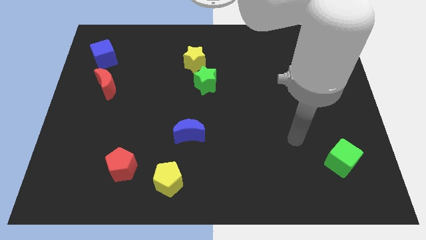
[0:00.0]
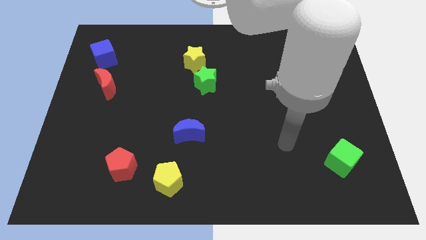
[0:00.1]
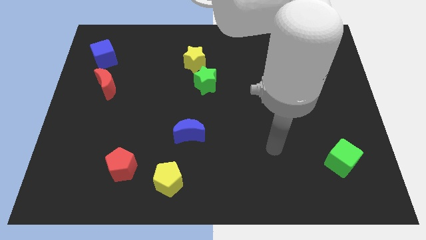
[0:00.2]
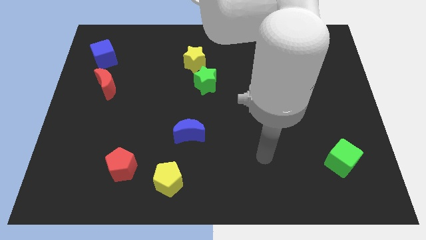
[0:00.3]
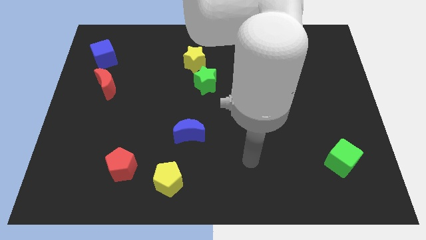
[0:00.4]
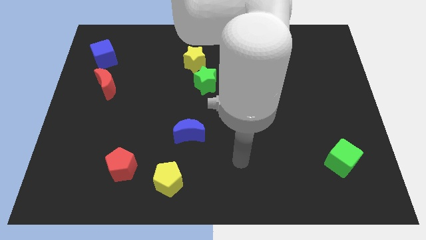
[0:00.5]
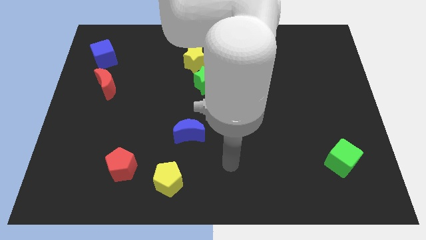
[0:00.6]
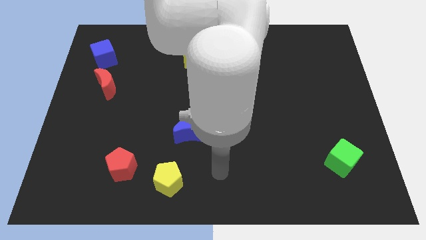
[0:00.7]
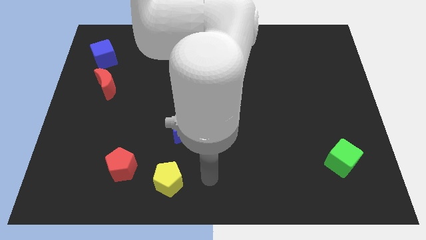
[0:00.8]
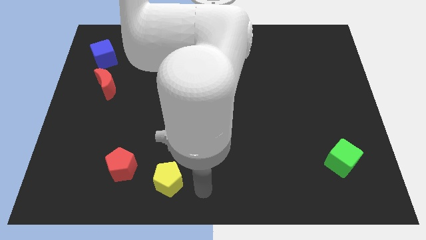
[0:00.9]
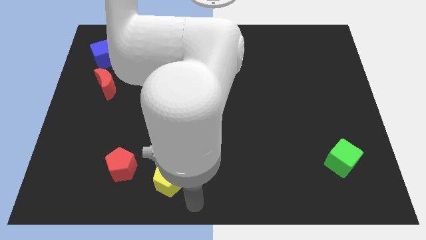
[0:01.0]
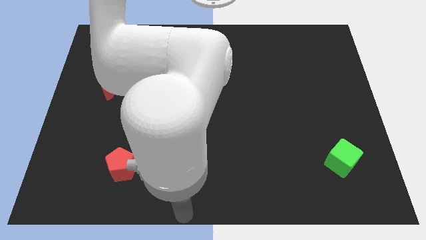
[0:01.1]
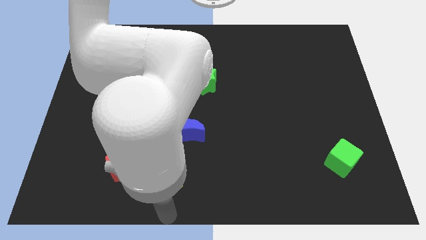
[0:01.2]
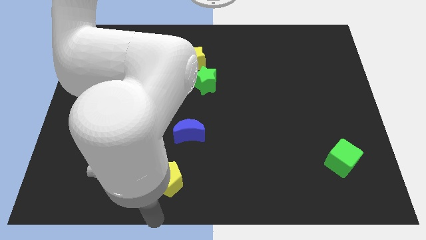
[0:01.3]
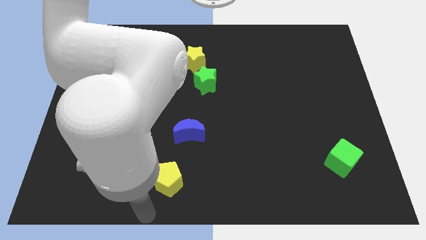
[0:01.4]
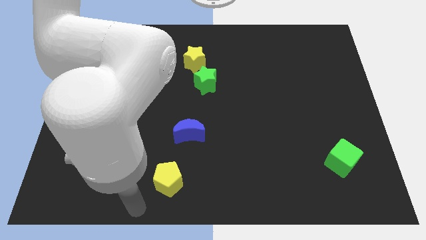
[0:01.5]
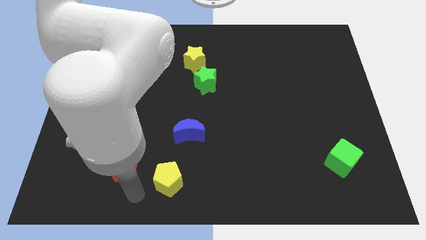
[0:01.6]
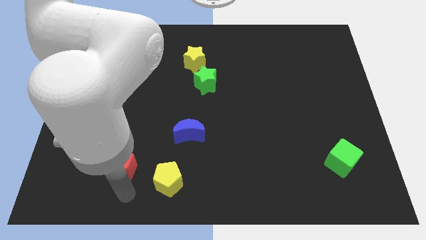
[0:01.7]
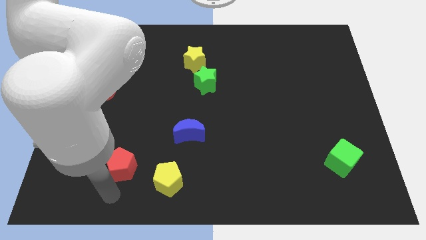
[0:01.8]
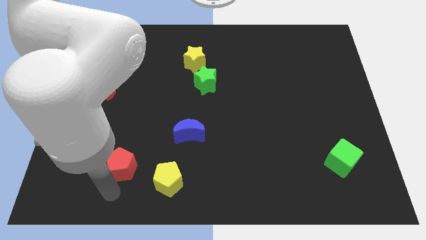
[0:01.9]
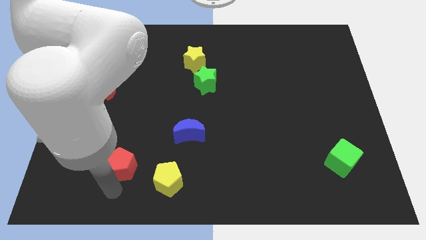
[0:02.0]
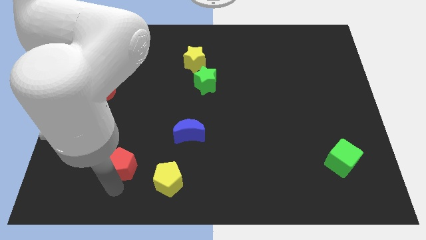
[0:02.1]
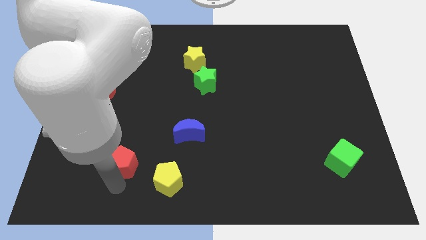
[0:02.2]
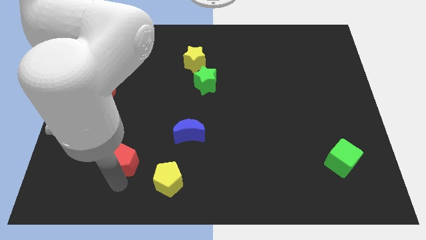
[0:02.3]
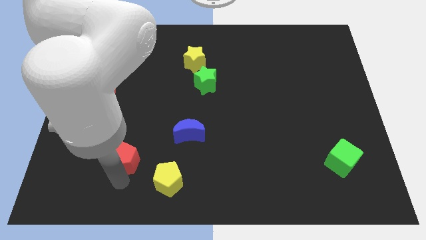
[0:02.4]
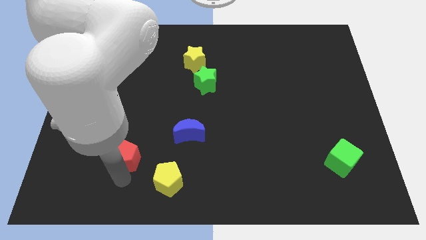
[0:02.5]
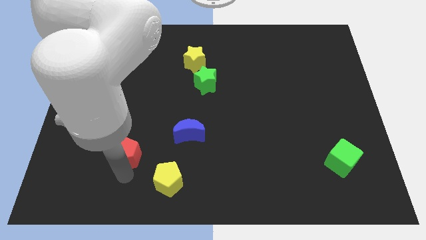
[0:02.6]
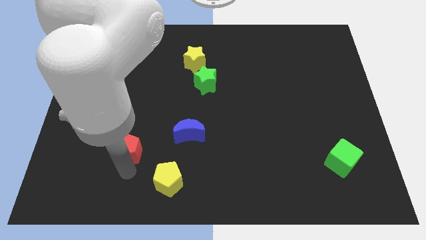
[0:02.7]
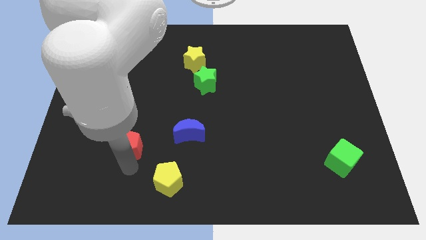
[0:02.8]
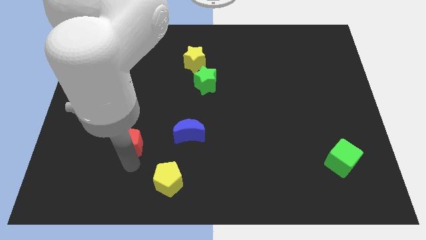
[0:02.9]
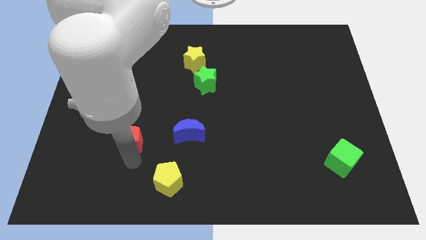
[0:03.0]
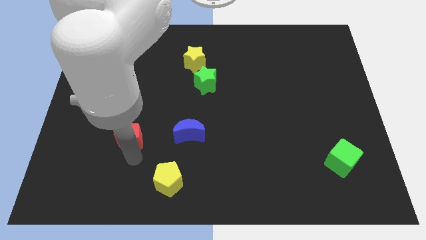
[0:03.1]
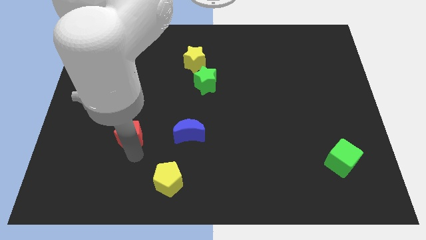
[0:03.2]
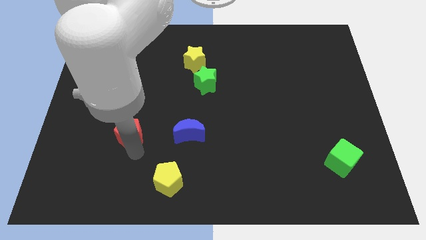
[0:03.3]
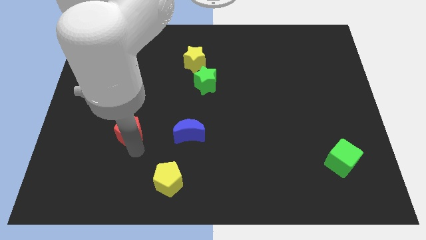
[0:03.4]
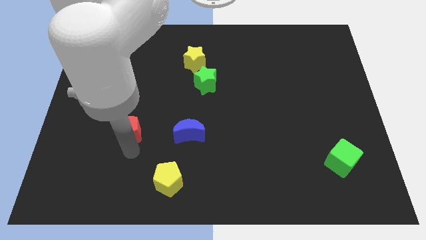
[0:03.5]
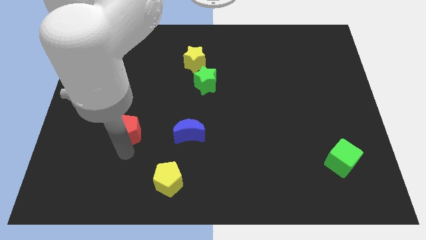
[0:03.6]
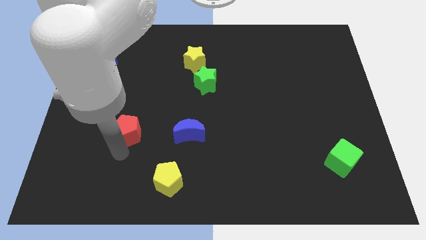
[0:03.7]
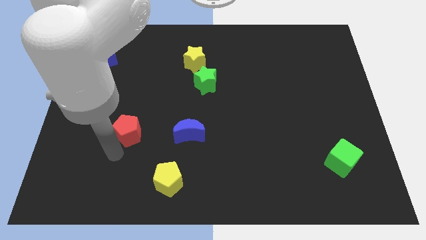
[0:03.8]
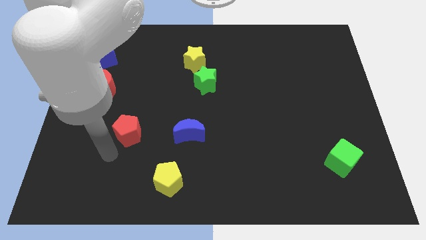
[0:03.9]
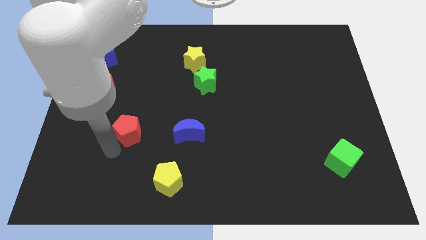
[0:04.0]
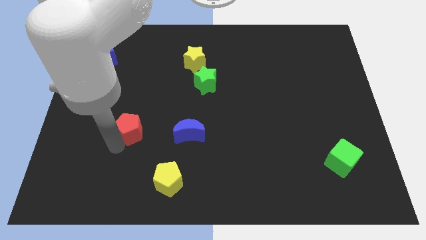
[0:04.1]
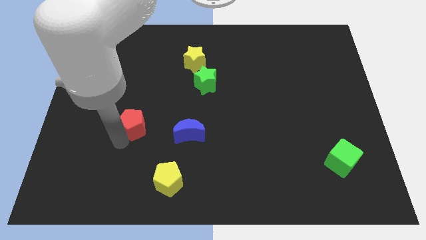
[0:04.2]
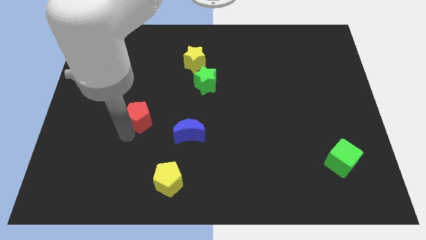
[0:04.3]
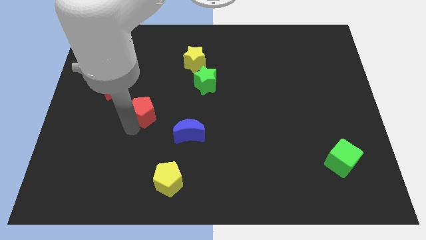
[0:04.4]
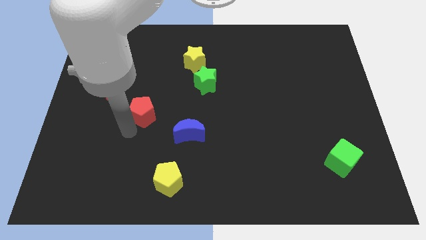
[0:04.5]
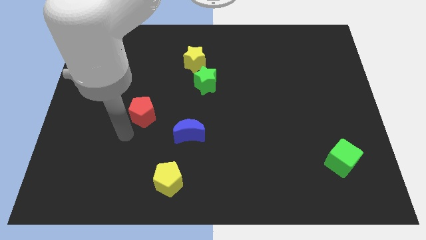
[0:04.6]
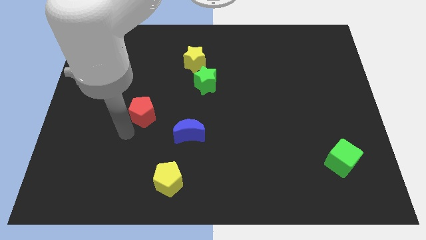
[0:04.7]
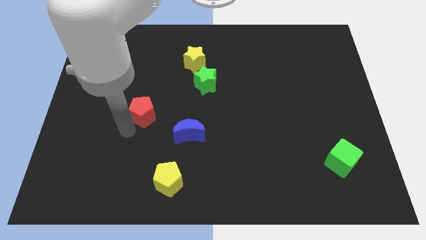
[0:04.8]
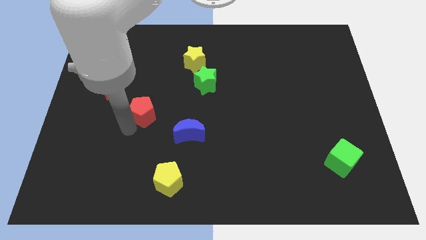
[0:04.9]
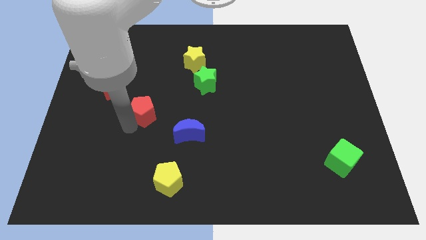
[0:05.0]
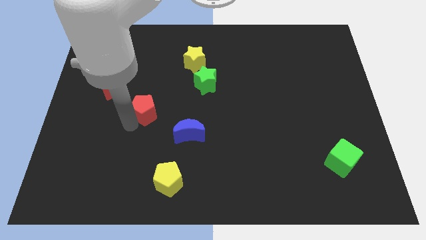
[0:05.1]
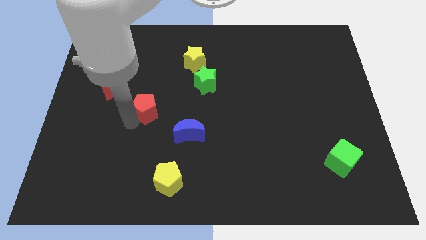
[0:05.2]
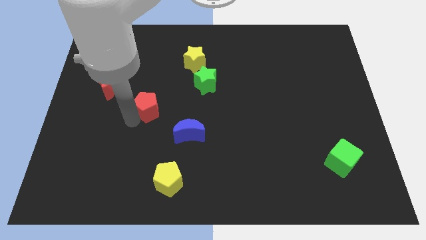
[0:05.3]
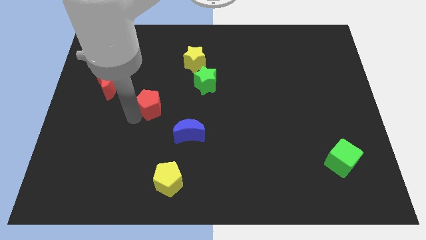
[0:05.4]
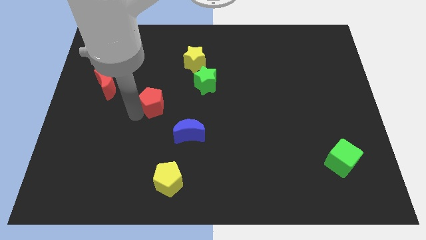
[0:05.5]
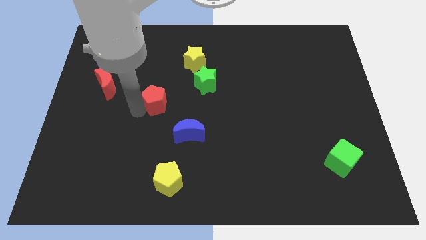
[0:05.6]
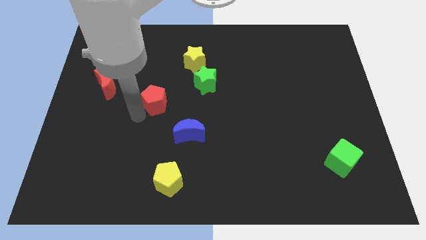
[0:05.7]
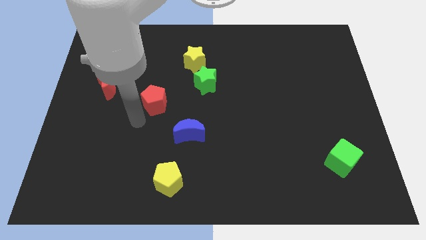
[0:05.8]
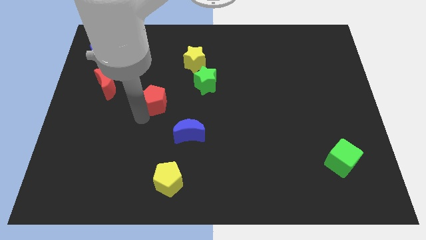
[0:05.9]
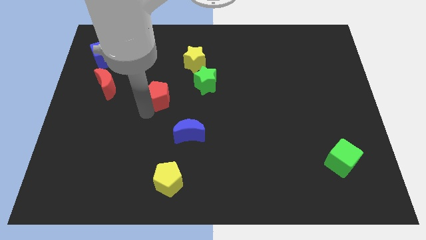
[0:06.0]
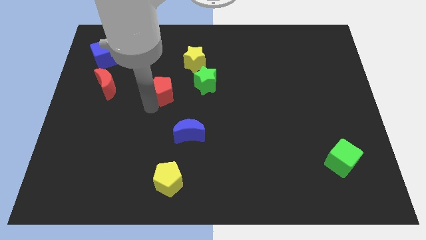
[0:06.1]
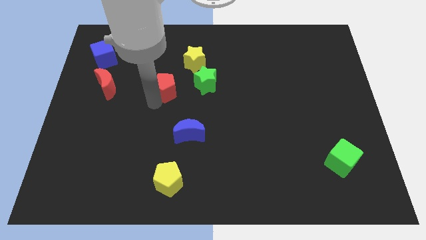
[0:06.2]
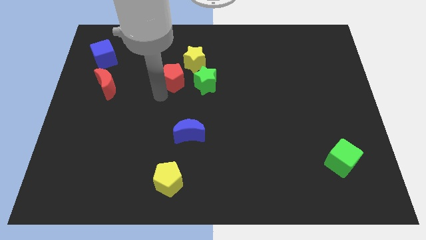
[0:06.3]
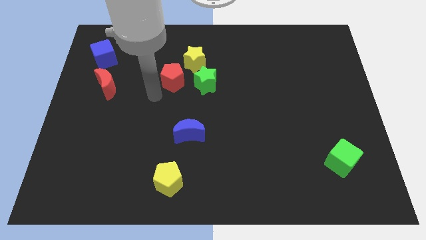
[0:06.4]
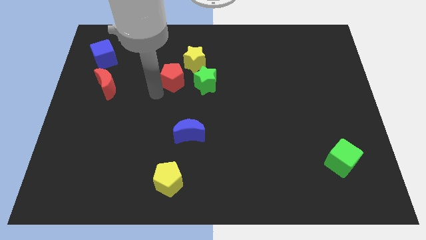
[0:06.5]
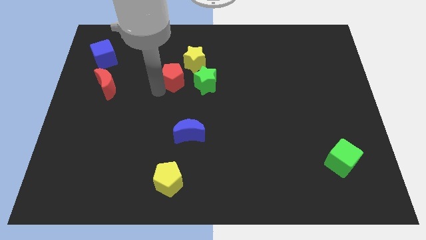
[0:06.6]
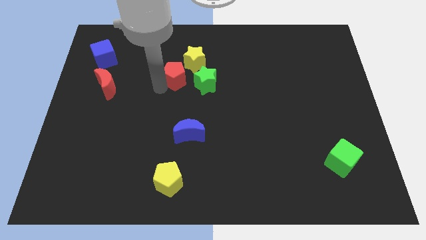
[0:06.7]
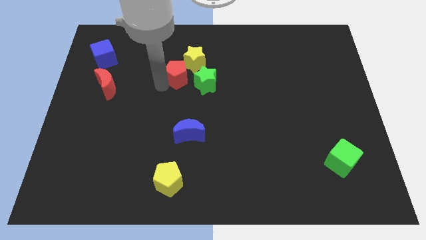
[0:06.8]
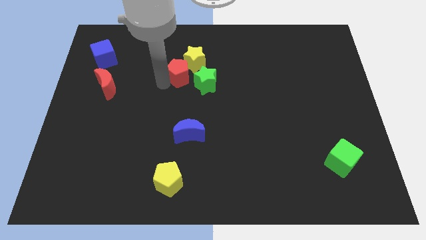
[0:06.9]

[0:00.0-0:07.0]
push the red pentagon to the yellow star

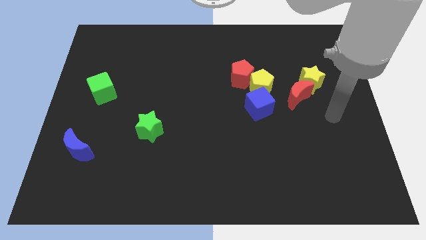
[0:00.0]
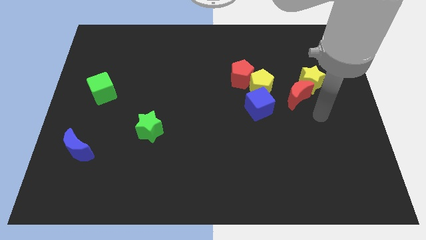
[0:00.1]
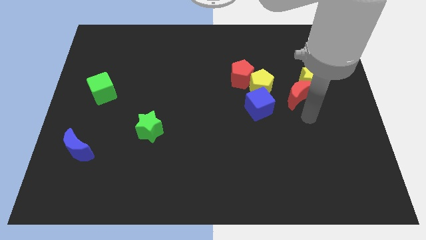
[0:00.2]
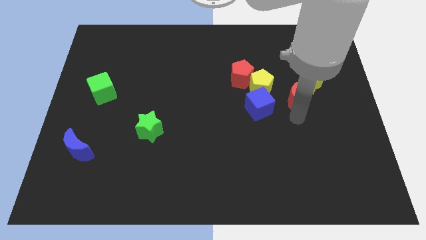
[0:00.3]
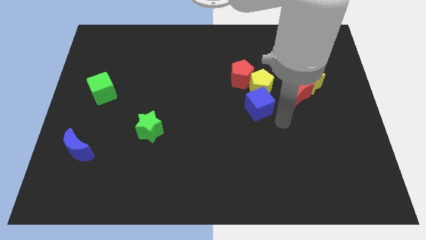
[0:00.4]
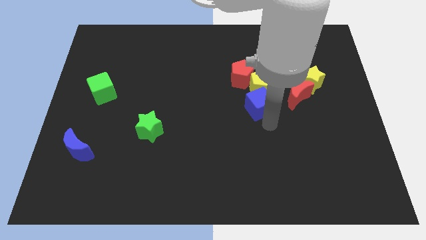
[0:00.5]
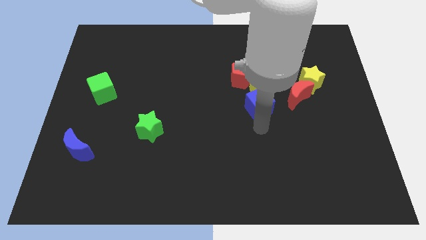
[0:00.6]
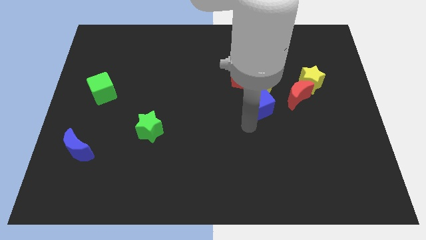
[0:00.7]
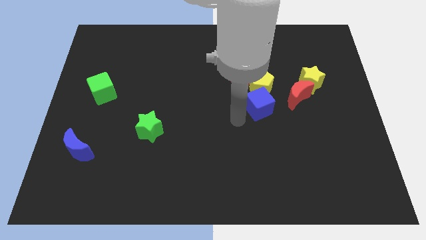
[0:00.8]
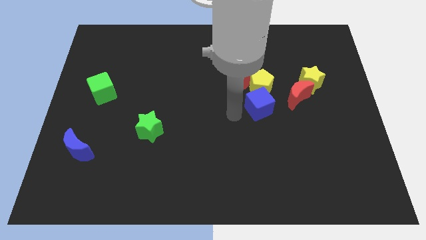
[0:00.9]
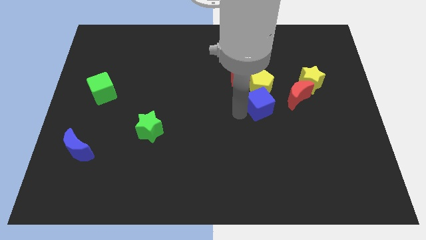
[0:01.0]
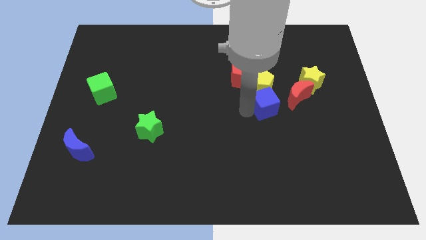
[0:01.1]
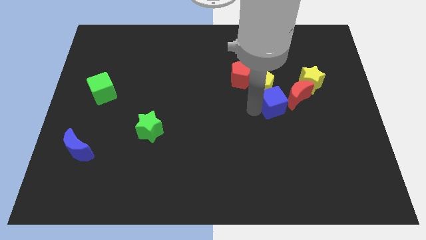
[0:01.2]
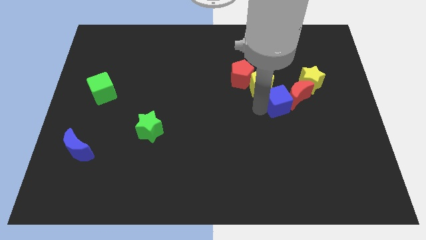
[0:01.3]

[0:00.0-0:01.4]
push the blue cube towards the red moon
